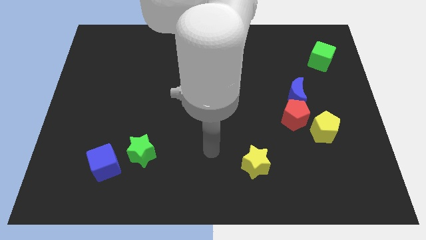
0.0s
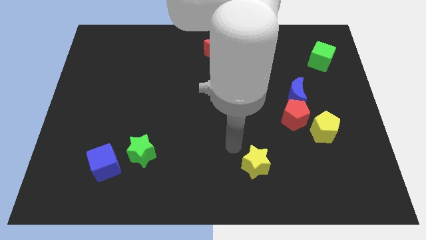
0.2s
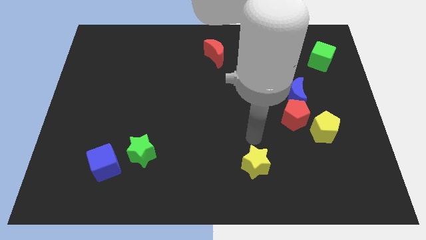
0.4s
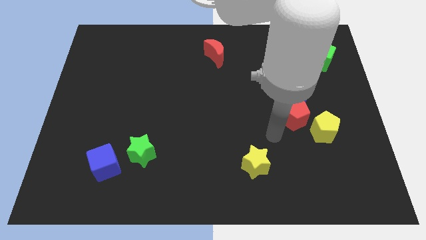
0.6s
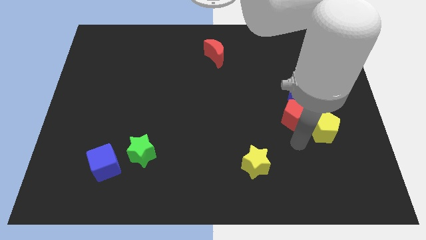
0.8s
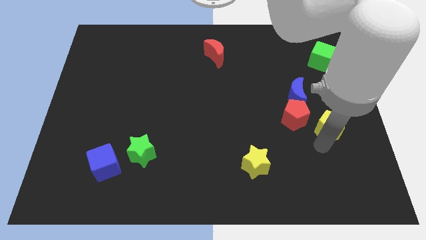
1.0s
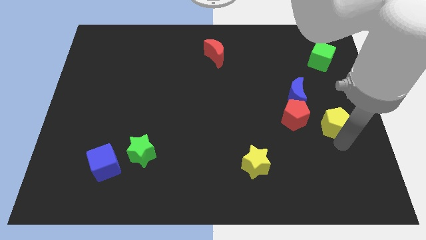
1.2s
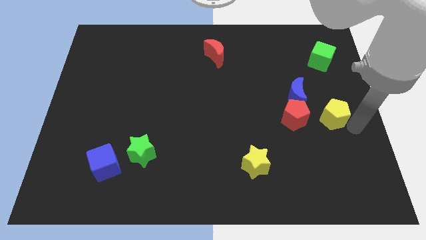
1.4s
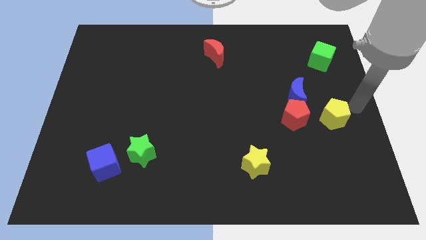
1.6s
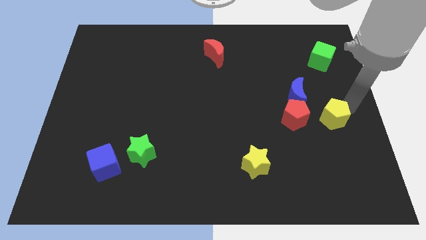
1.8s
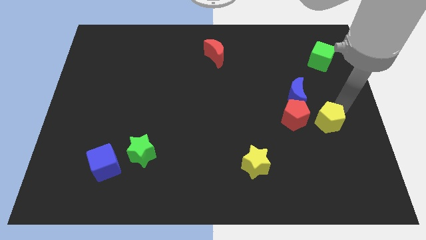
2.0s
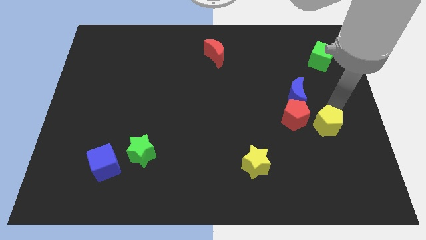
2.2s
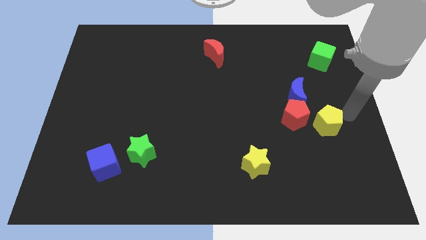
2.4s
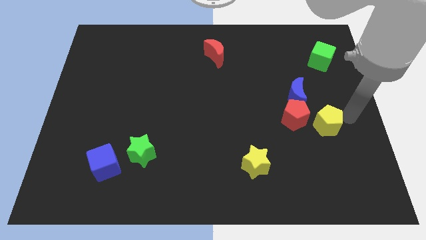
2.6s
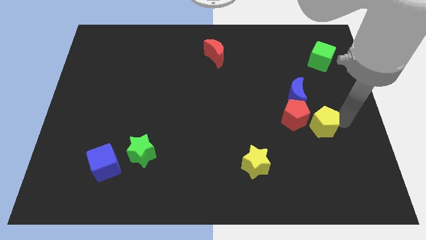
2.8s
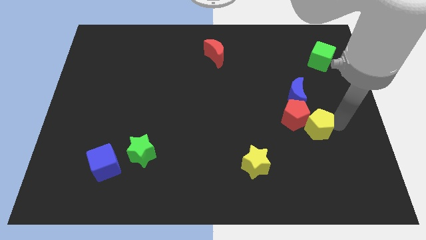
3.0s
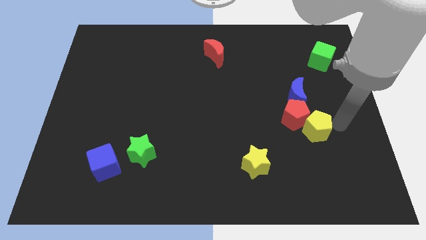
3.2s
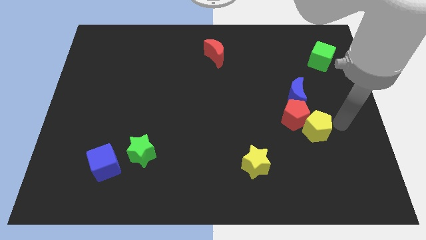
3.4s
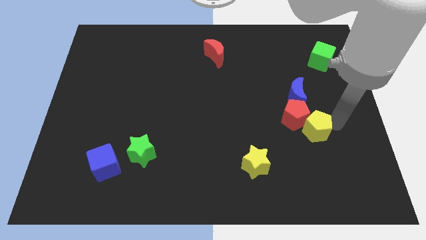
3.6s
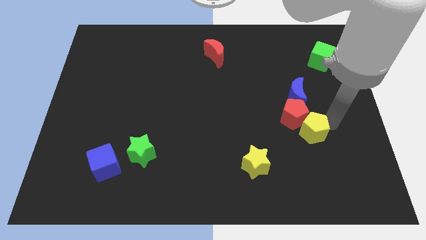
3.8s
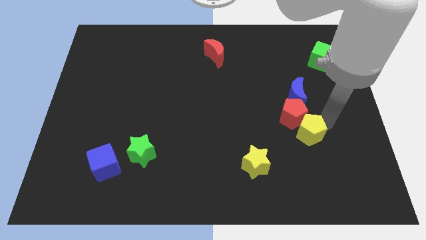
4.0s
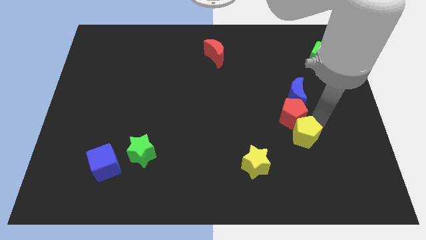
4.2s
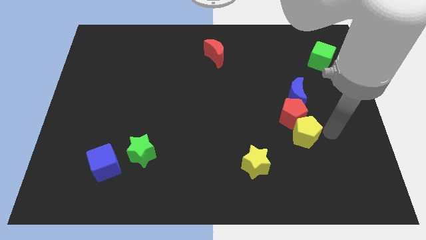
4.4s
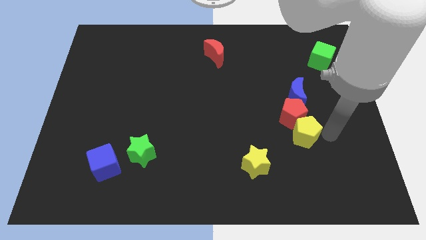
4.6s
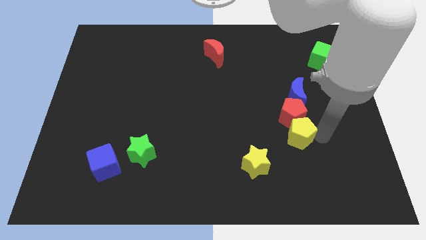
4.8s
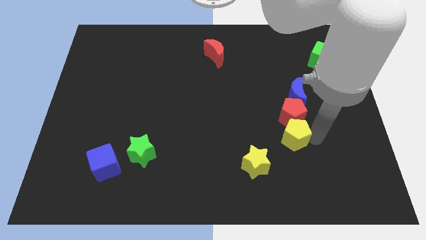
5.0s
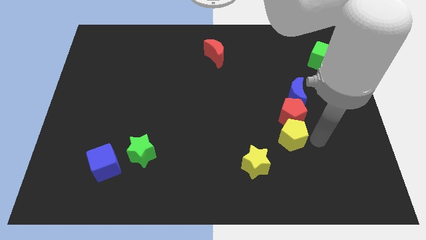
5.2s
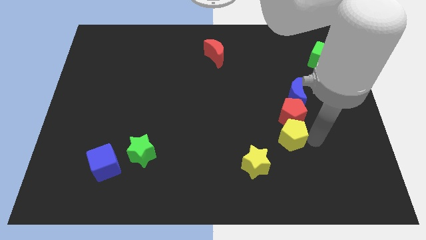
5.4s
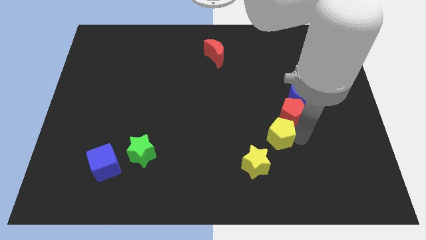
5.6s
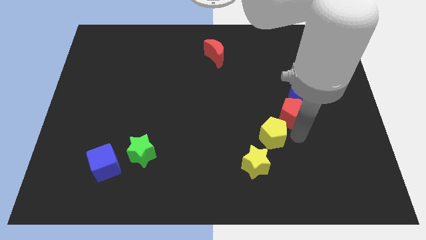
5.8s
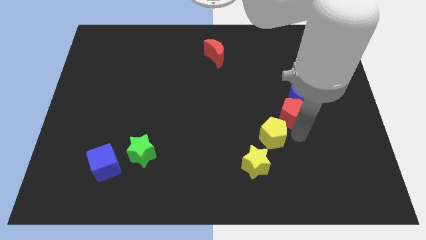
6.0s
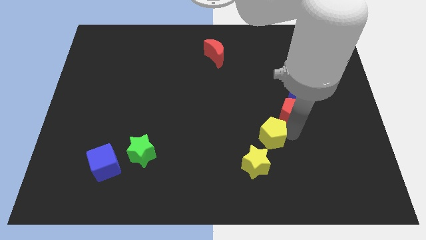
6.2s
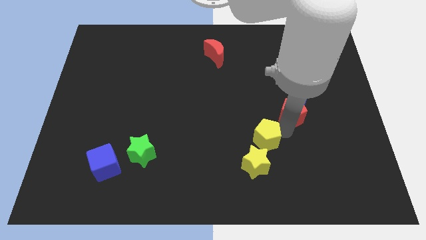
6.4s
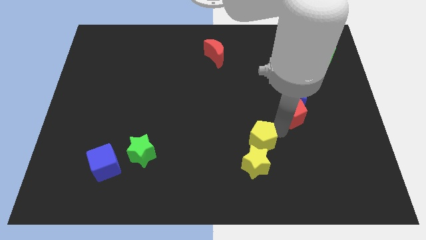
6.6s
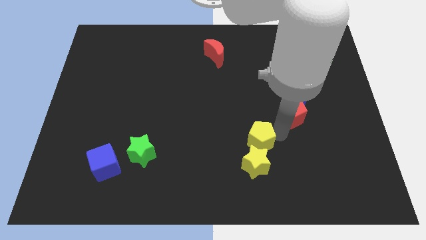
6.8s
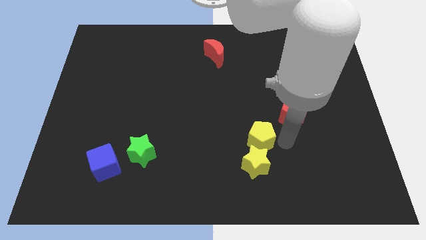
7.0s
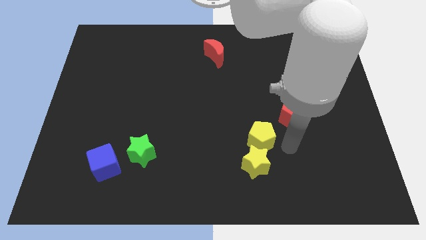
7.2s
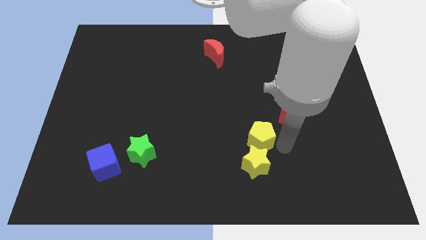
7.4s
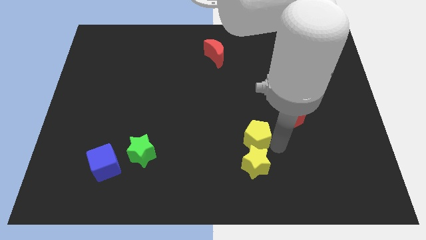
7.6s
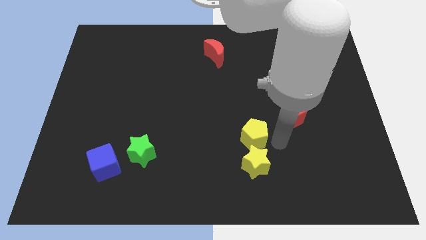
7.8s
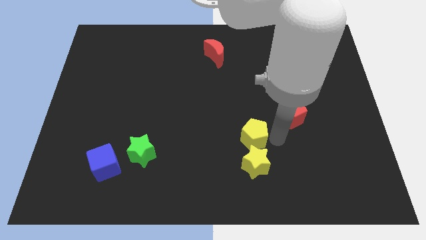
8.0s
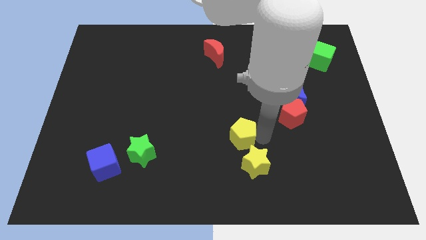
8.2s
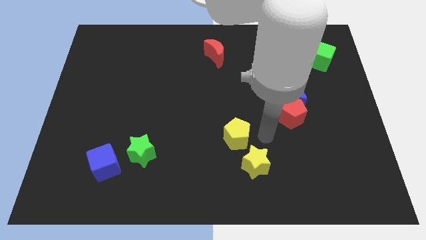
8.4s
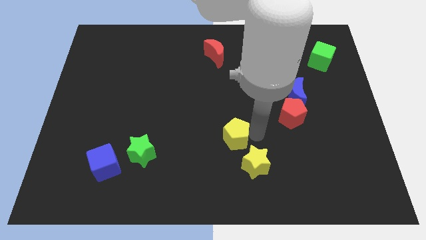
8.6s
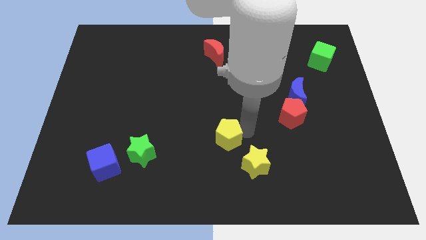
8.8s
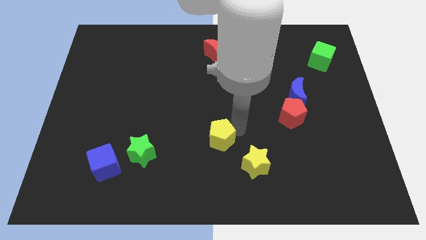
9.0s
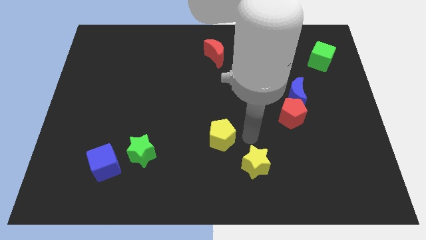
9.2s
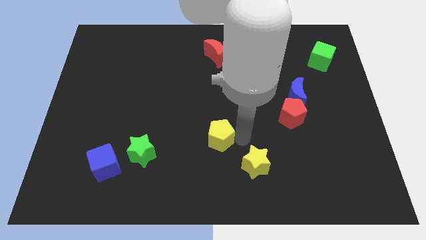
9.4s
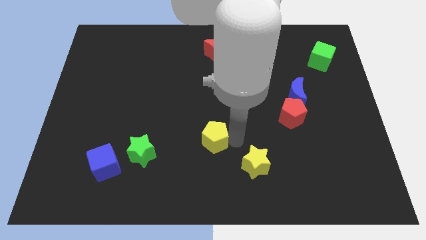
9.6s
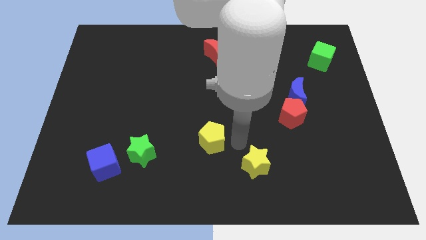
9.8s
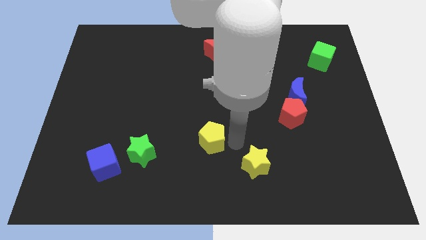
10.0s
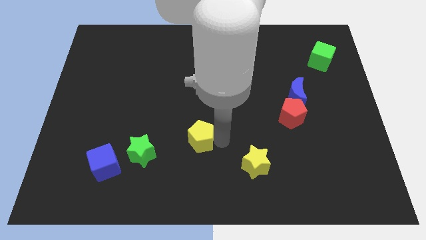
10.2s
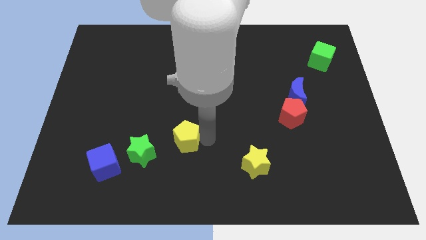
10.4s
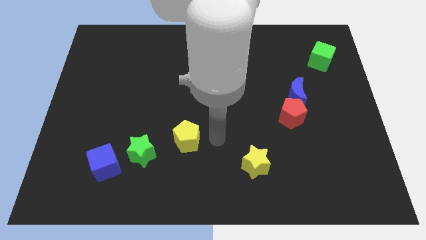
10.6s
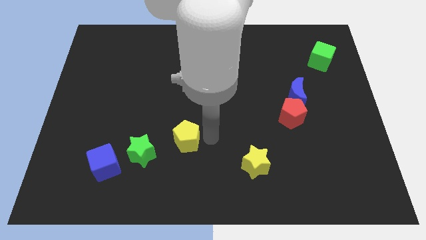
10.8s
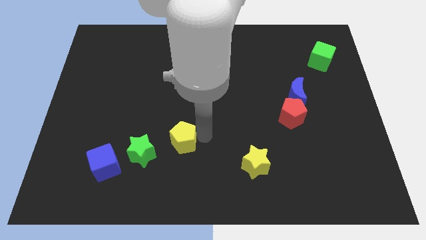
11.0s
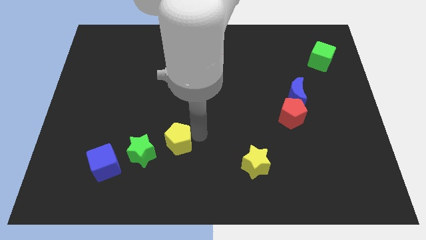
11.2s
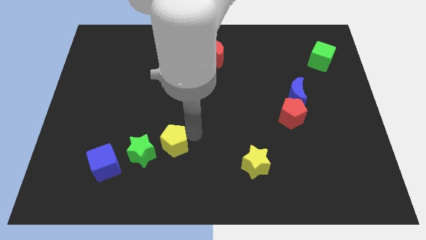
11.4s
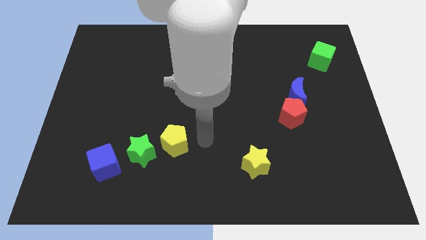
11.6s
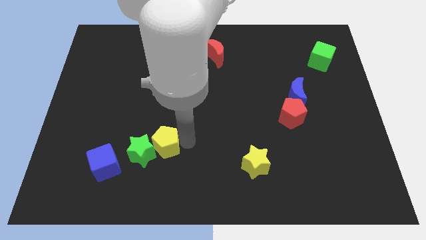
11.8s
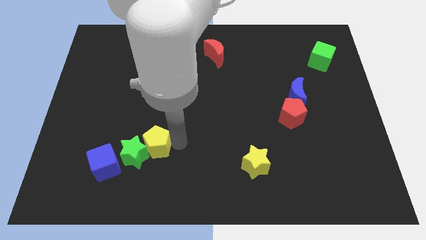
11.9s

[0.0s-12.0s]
move the yellow pentagon to the top right side of the blue cube

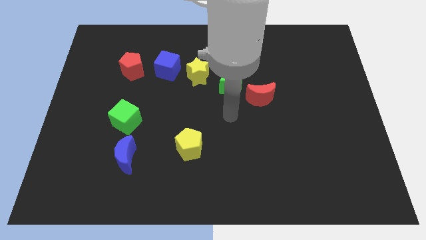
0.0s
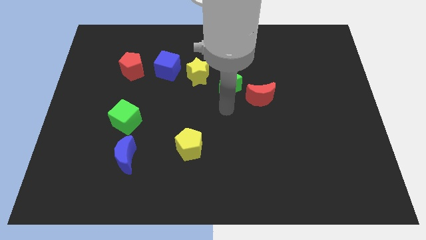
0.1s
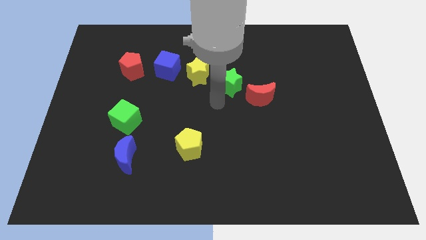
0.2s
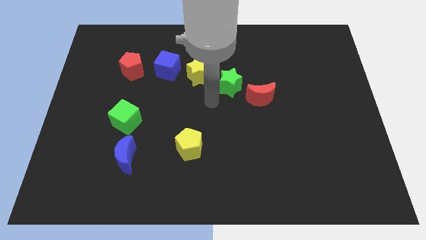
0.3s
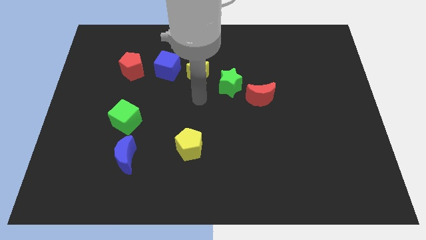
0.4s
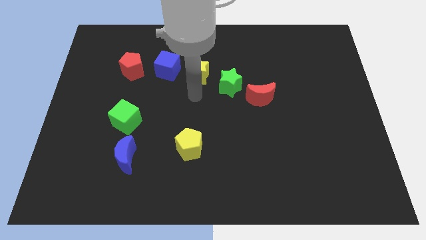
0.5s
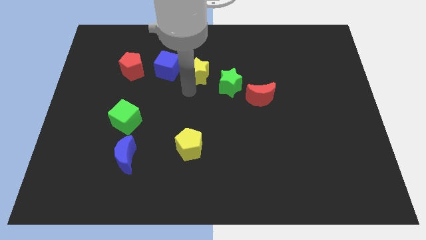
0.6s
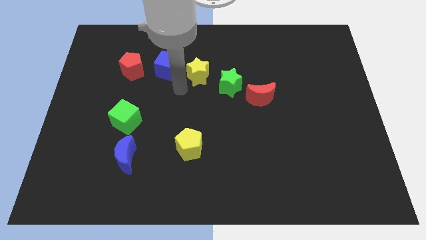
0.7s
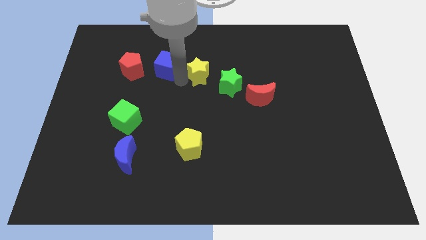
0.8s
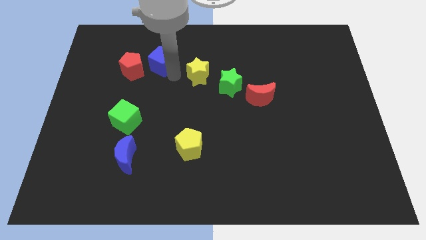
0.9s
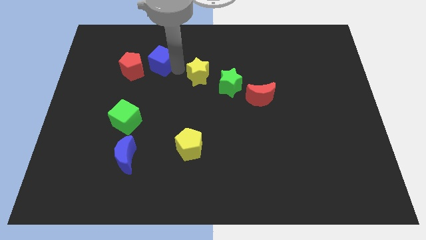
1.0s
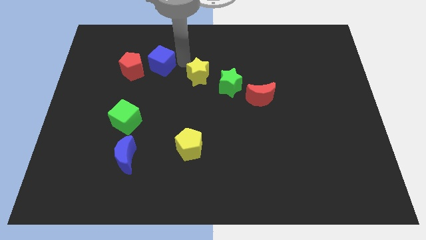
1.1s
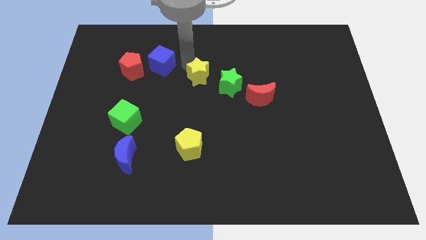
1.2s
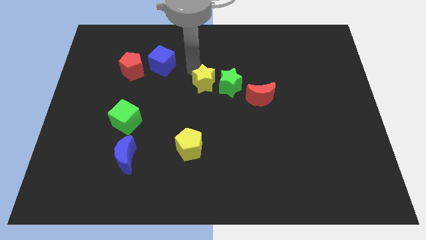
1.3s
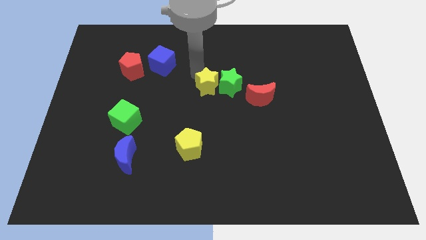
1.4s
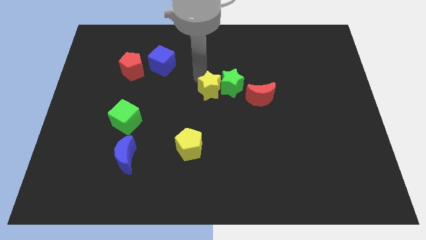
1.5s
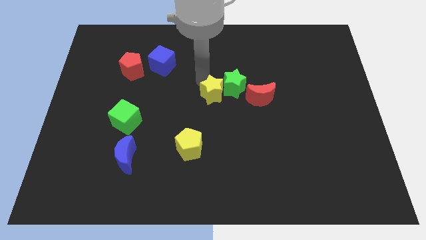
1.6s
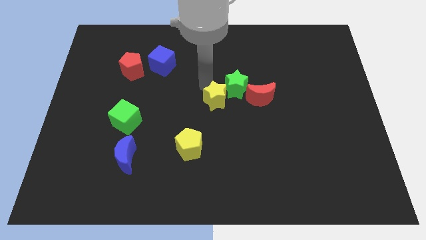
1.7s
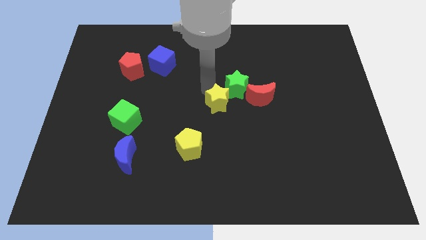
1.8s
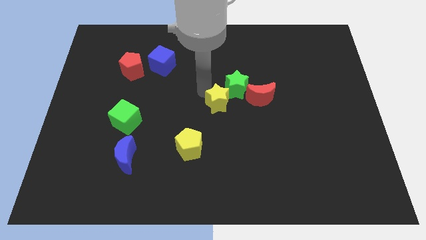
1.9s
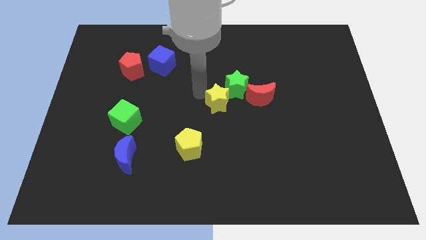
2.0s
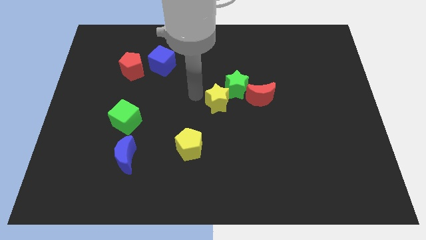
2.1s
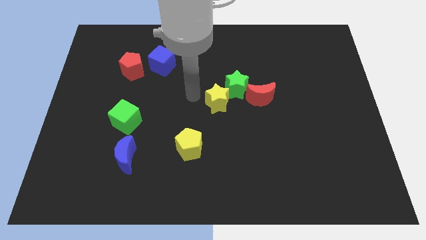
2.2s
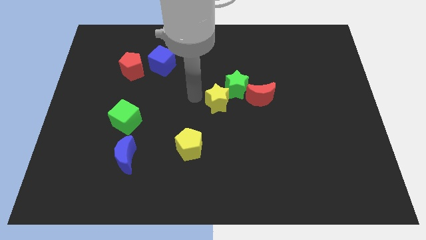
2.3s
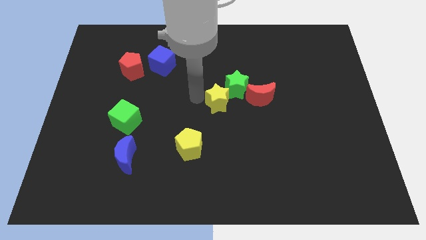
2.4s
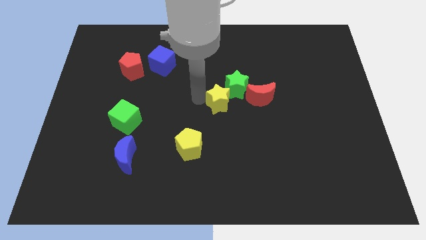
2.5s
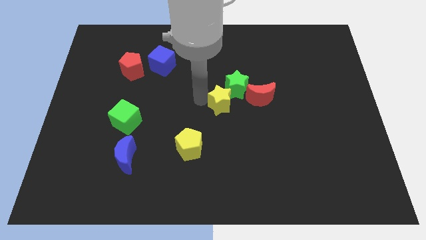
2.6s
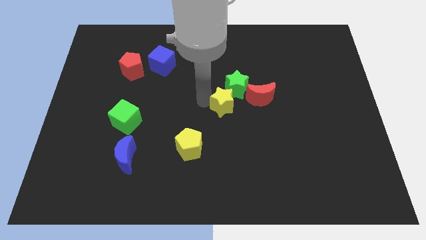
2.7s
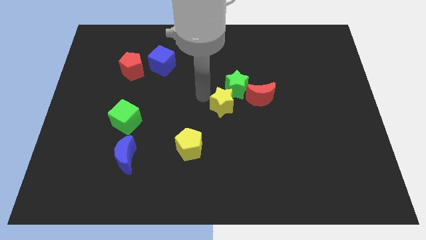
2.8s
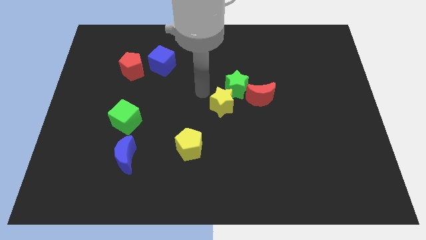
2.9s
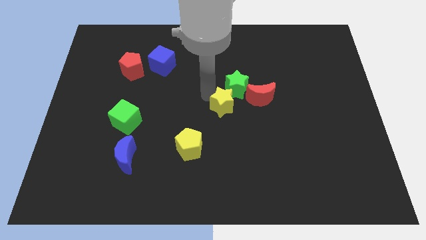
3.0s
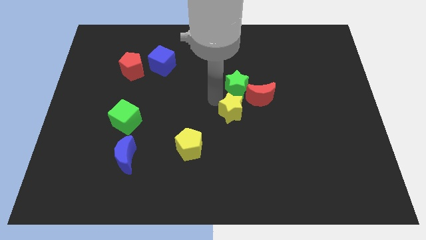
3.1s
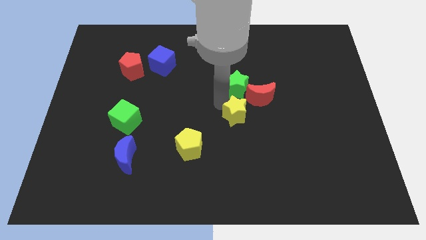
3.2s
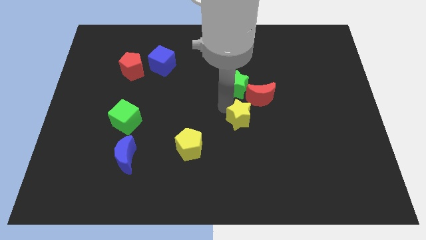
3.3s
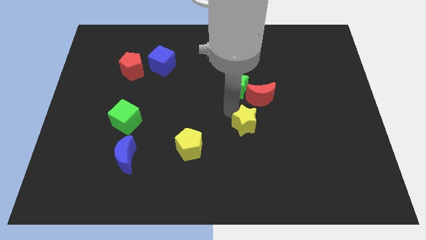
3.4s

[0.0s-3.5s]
put the yellow star to the bottom side of the red moon
